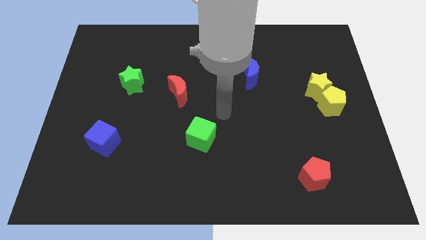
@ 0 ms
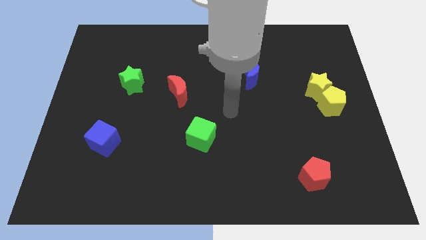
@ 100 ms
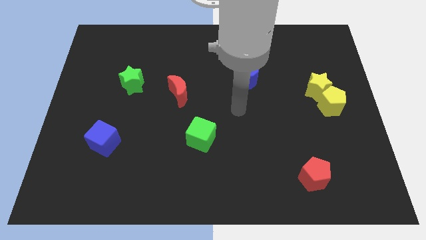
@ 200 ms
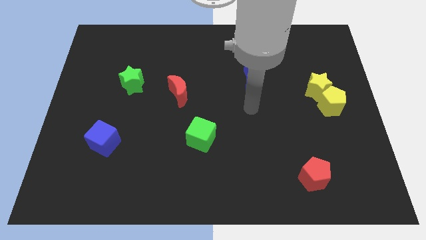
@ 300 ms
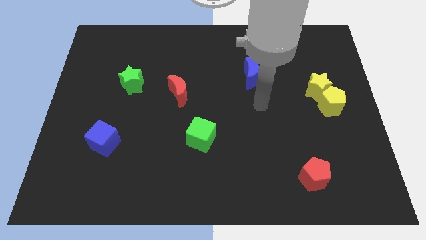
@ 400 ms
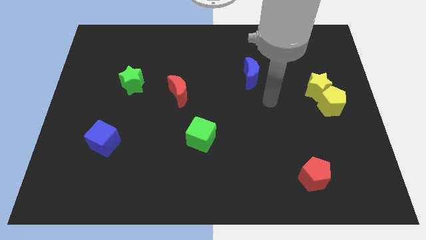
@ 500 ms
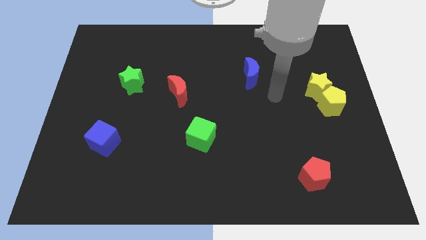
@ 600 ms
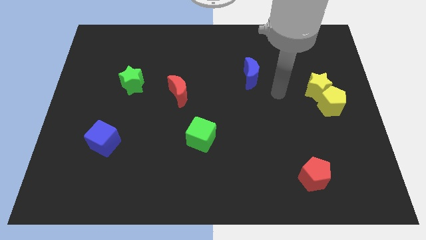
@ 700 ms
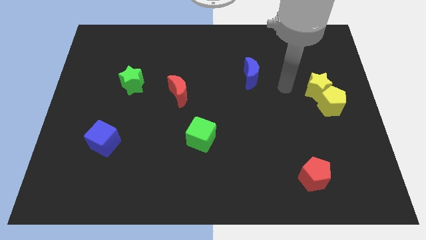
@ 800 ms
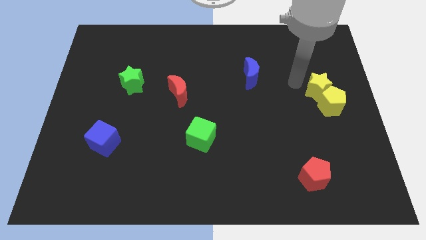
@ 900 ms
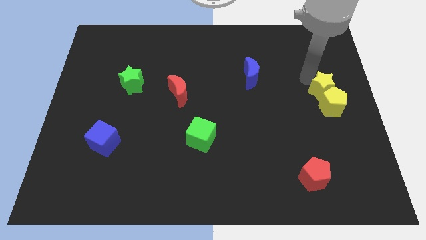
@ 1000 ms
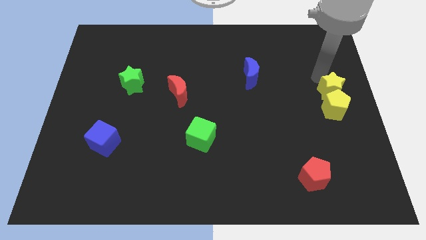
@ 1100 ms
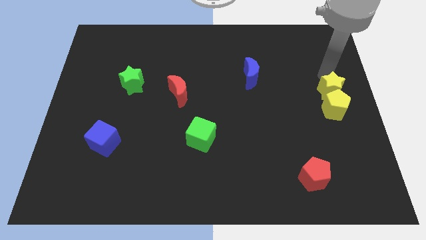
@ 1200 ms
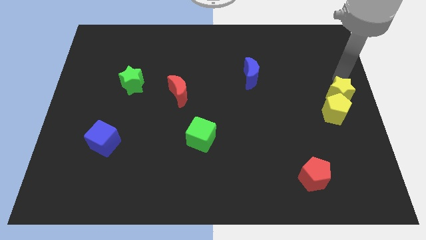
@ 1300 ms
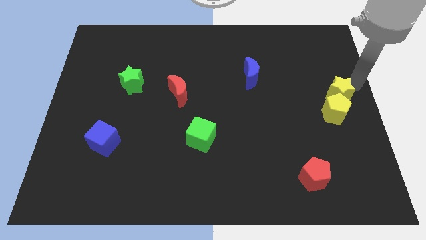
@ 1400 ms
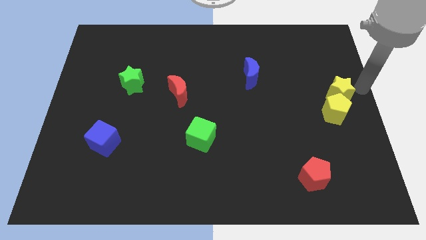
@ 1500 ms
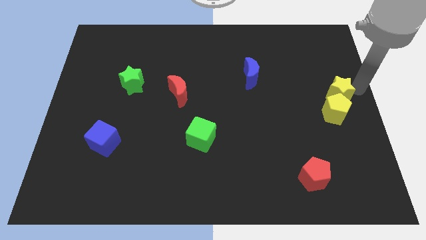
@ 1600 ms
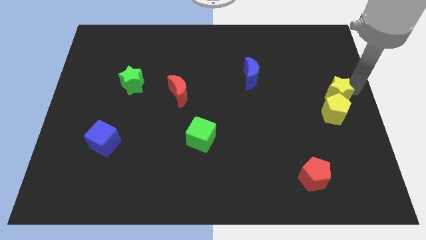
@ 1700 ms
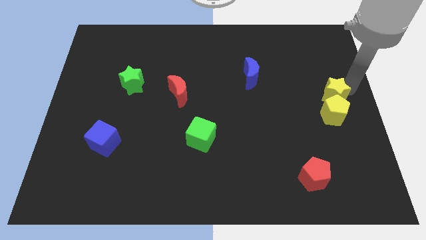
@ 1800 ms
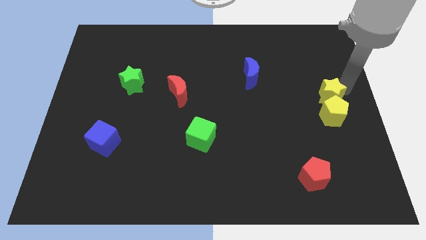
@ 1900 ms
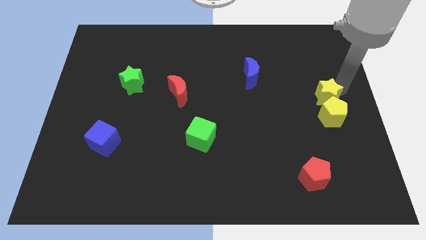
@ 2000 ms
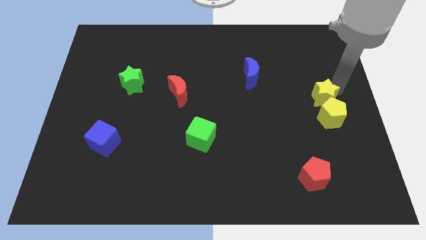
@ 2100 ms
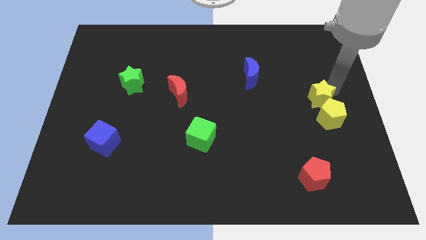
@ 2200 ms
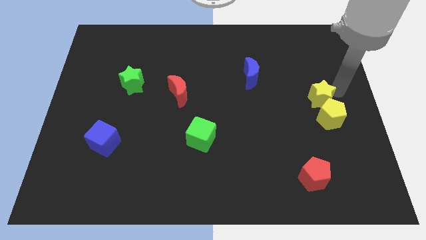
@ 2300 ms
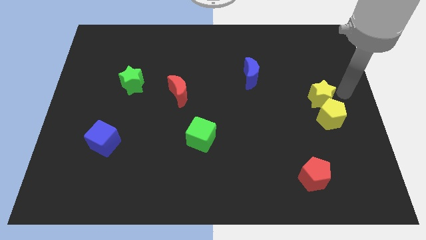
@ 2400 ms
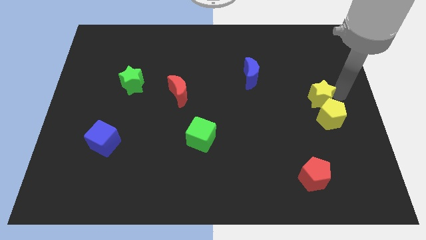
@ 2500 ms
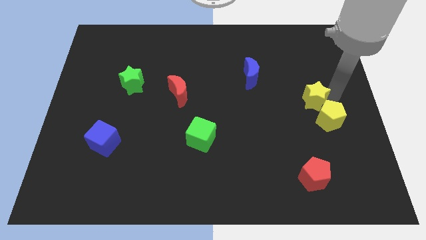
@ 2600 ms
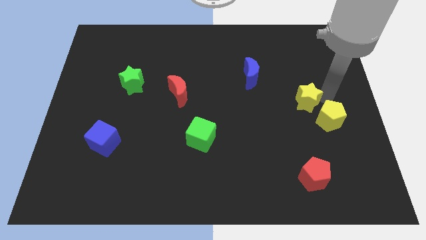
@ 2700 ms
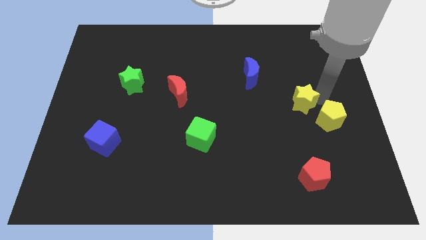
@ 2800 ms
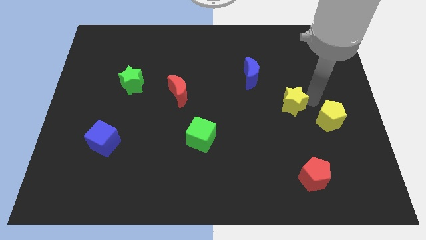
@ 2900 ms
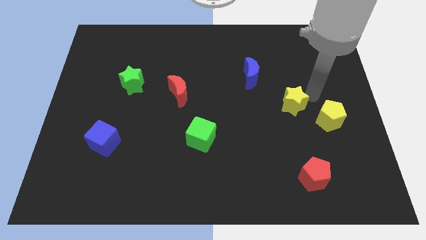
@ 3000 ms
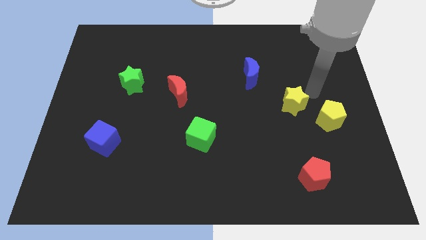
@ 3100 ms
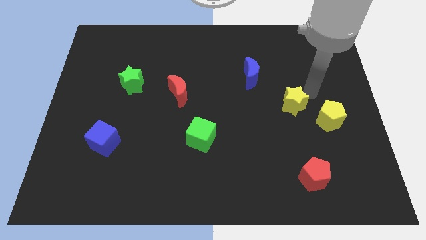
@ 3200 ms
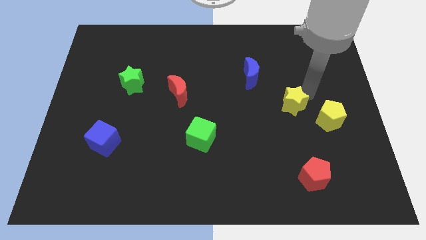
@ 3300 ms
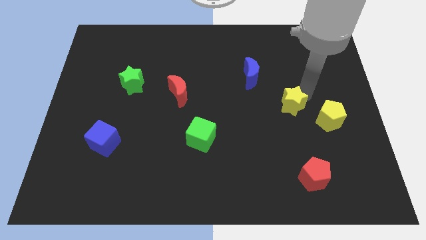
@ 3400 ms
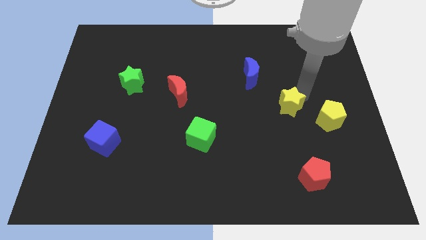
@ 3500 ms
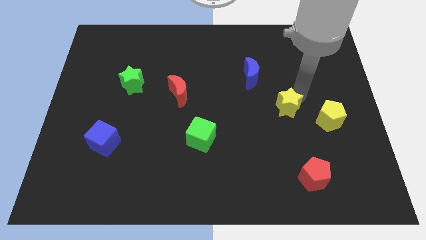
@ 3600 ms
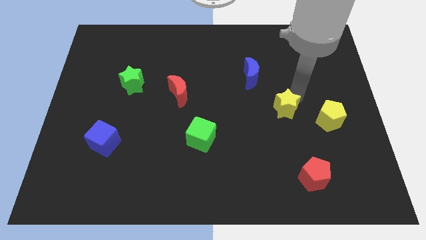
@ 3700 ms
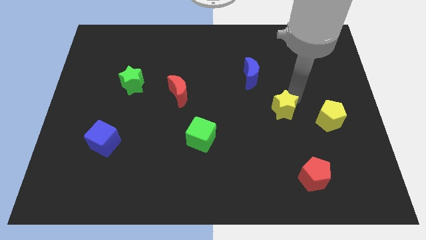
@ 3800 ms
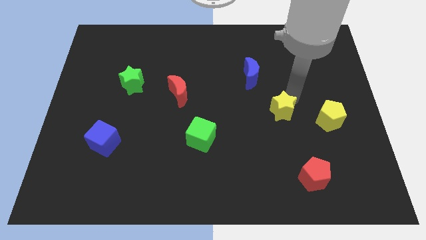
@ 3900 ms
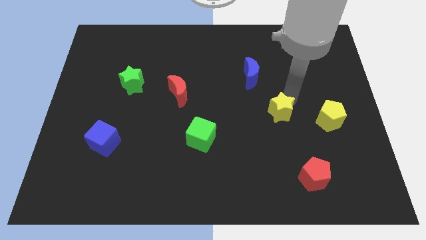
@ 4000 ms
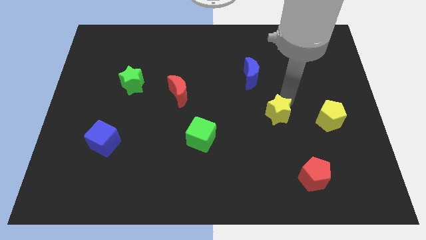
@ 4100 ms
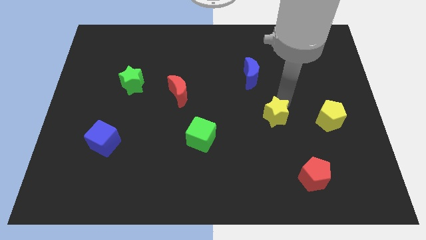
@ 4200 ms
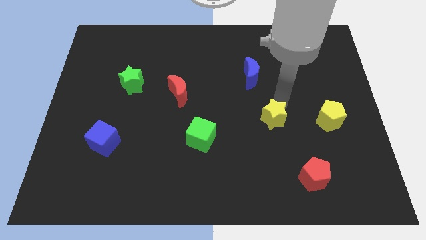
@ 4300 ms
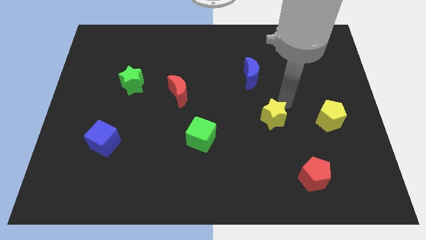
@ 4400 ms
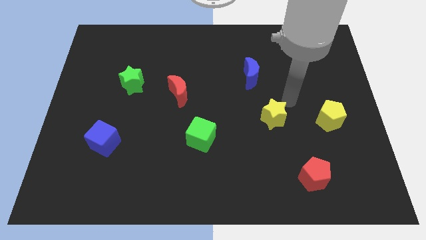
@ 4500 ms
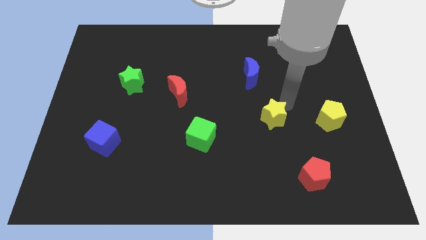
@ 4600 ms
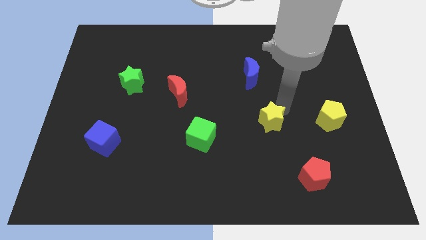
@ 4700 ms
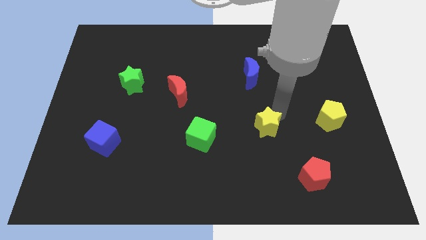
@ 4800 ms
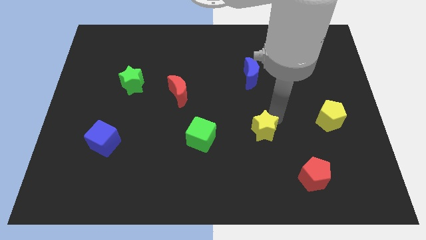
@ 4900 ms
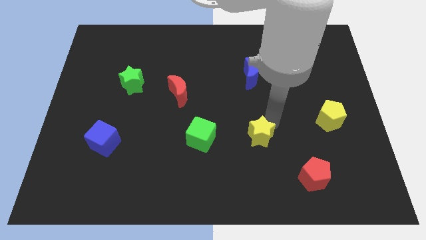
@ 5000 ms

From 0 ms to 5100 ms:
slide the yellow star diagonally downwards and to the left

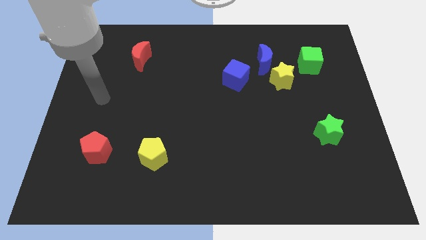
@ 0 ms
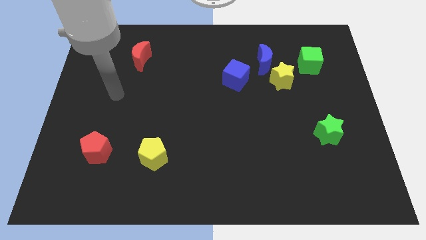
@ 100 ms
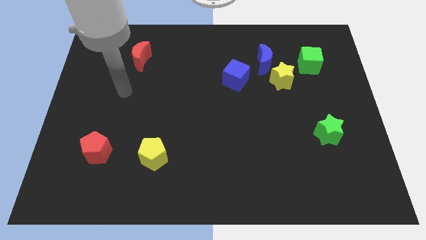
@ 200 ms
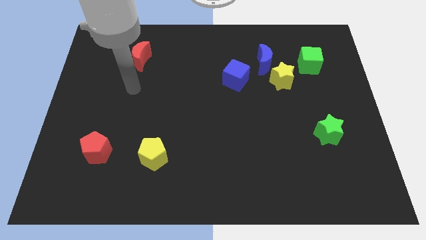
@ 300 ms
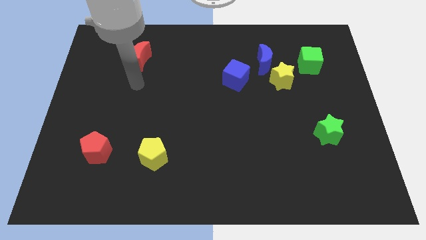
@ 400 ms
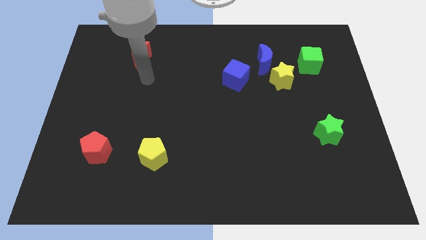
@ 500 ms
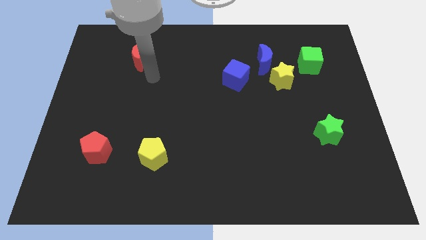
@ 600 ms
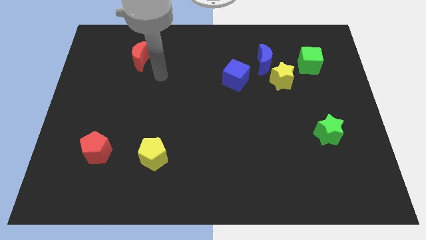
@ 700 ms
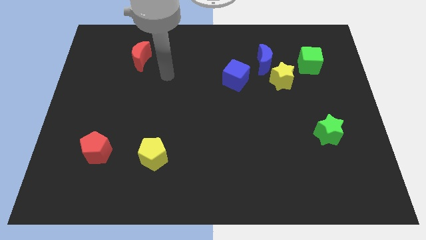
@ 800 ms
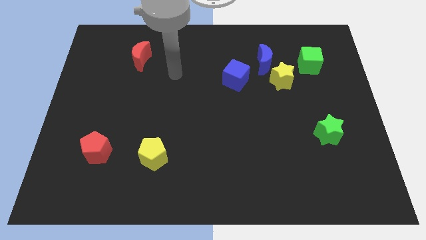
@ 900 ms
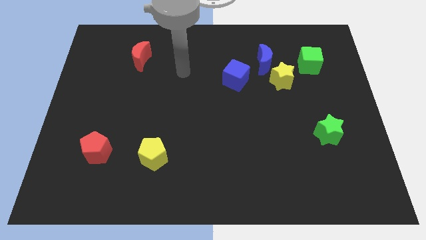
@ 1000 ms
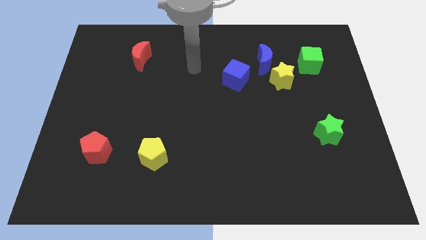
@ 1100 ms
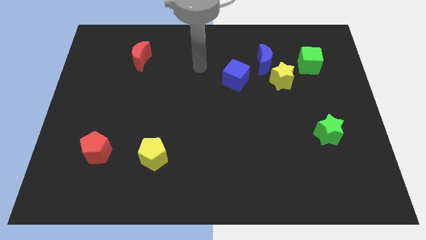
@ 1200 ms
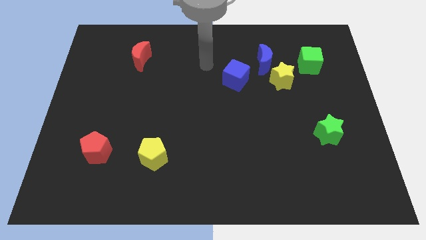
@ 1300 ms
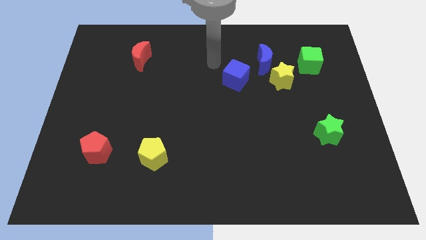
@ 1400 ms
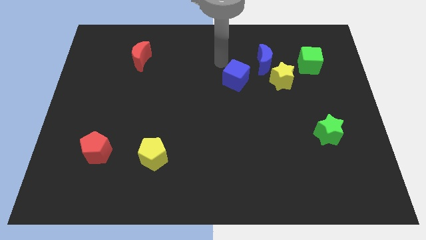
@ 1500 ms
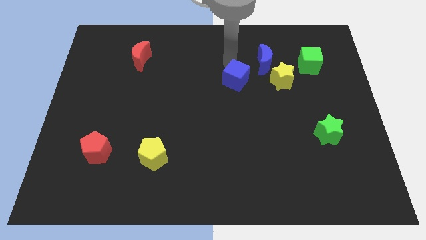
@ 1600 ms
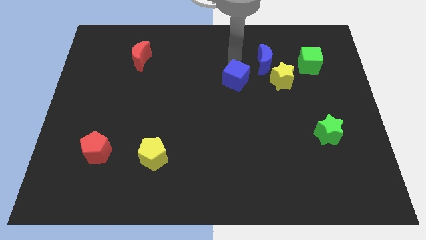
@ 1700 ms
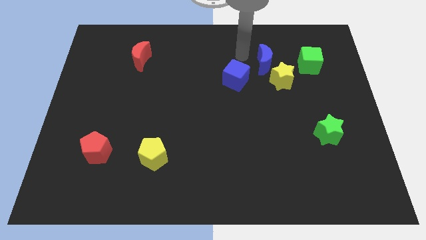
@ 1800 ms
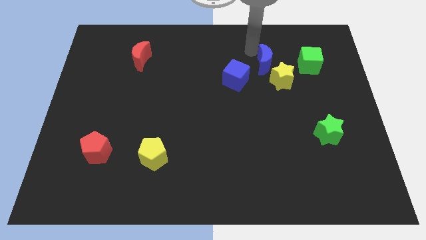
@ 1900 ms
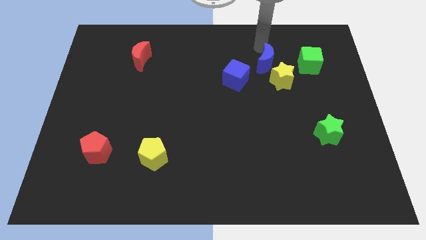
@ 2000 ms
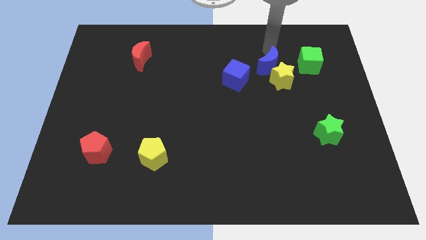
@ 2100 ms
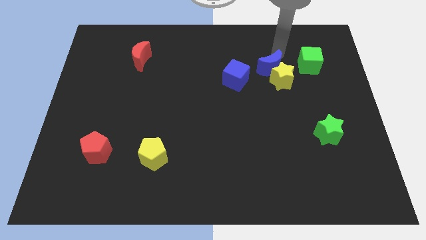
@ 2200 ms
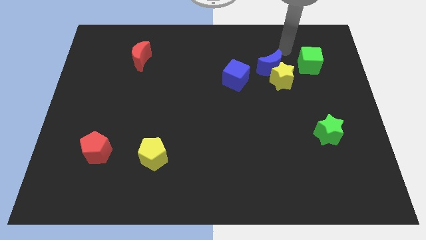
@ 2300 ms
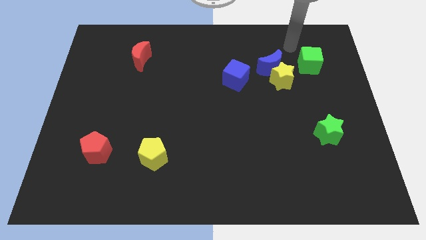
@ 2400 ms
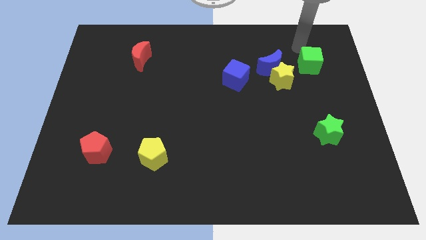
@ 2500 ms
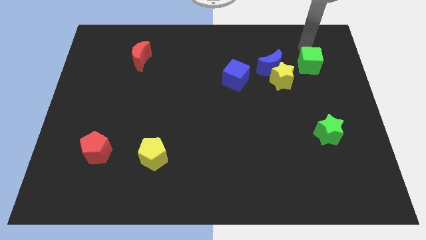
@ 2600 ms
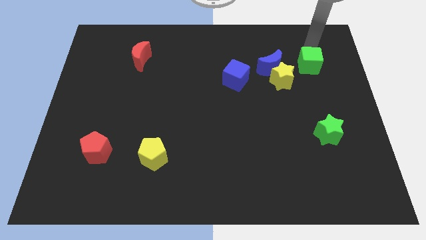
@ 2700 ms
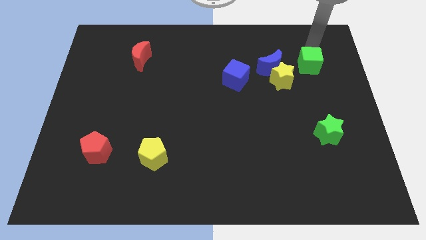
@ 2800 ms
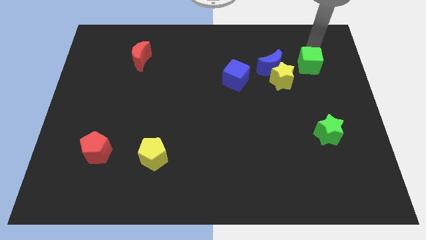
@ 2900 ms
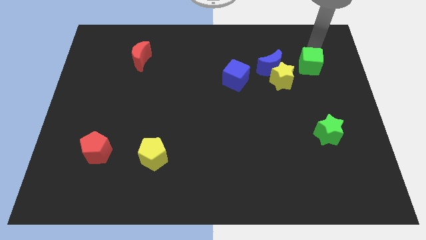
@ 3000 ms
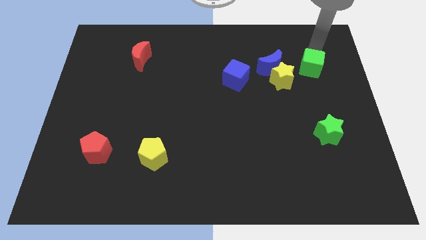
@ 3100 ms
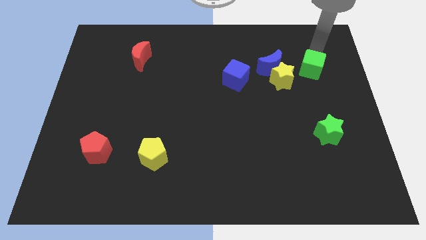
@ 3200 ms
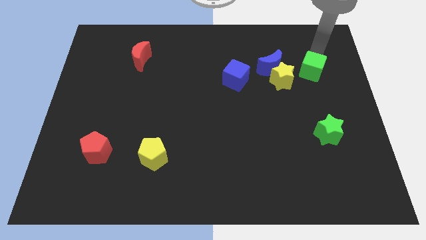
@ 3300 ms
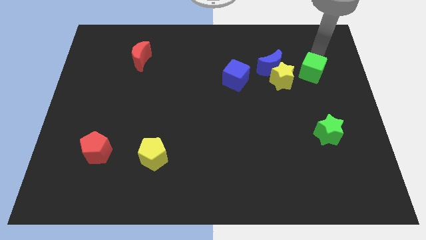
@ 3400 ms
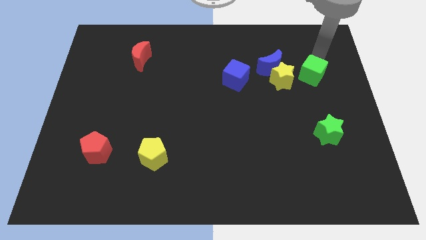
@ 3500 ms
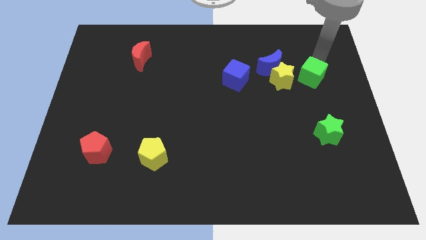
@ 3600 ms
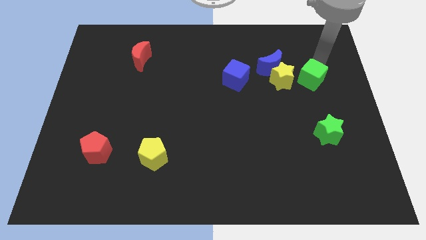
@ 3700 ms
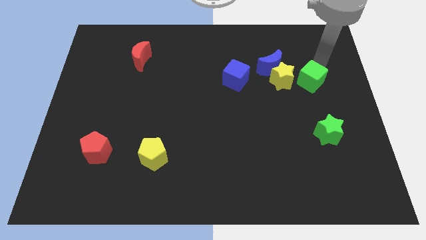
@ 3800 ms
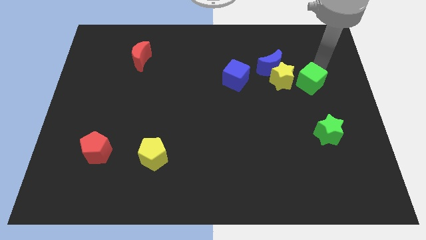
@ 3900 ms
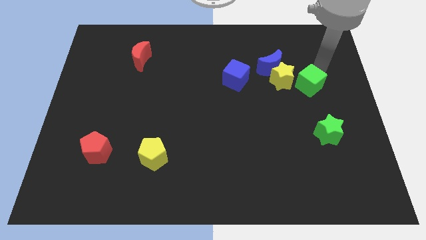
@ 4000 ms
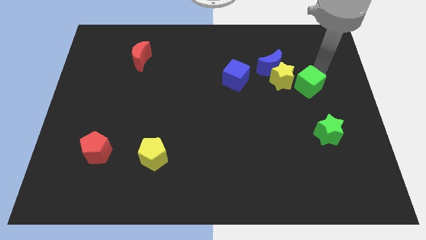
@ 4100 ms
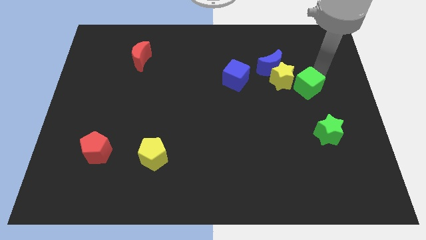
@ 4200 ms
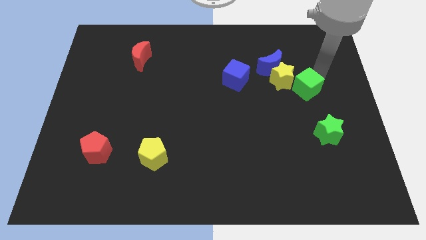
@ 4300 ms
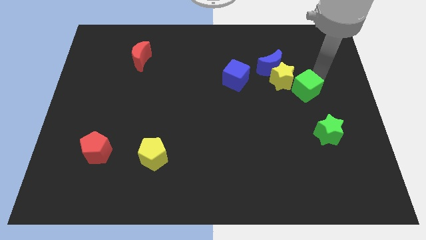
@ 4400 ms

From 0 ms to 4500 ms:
slightly move the green cube downwards and left
